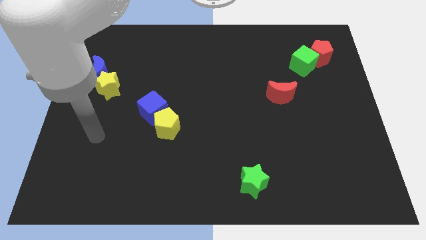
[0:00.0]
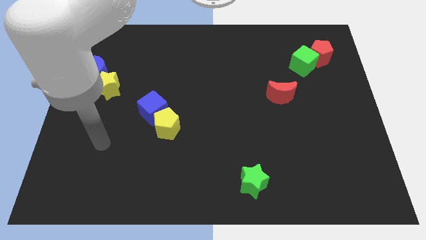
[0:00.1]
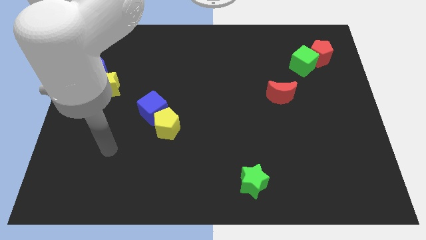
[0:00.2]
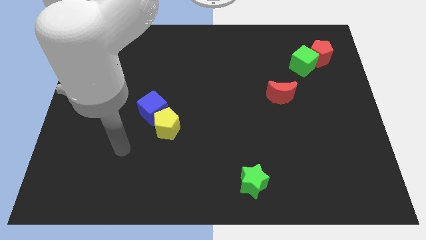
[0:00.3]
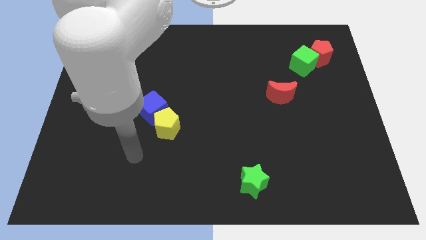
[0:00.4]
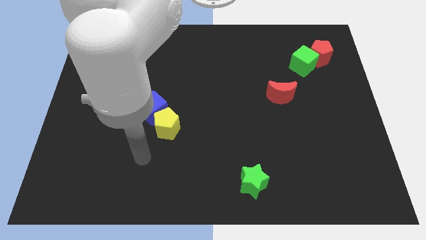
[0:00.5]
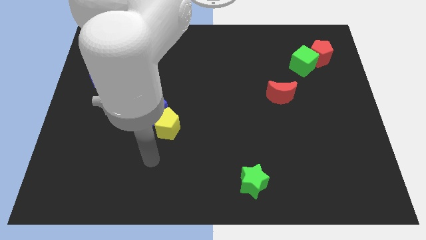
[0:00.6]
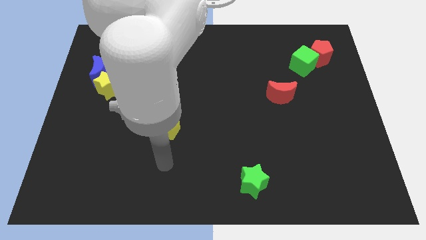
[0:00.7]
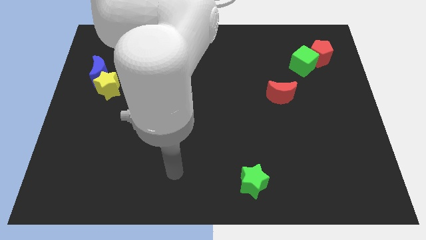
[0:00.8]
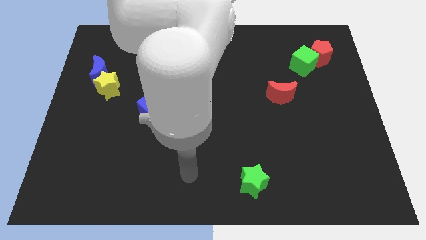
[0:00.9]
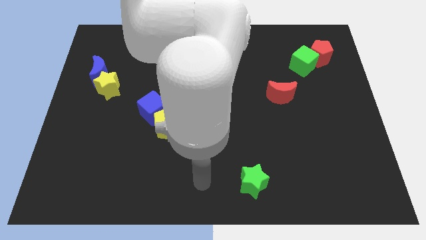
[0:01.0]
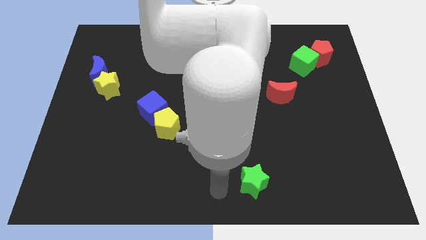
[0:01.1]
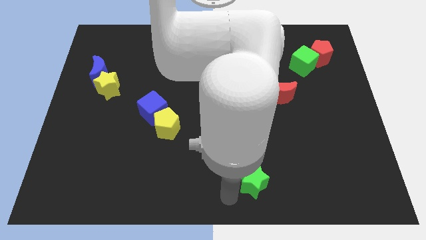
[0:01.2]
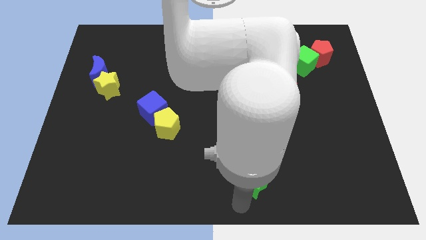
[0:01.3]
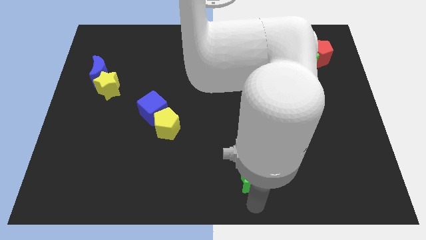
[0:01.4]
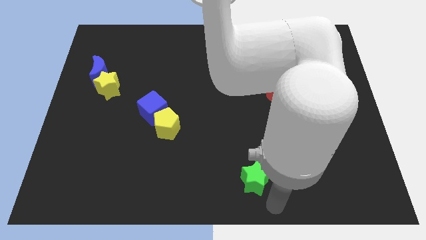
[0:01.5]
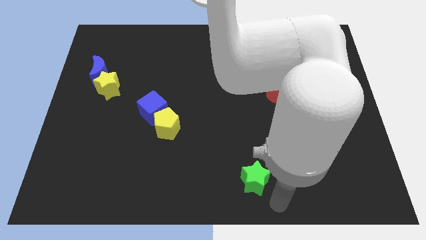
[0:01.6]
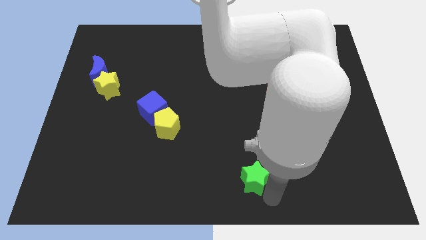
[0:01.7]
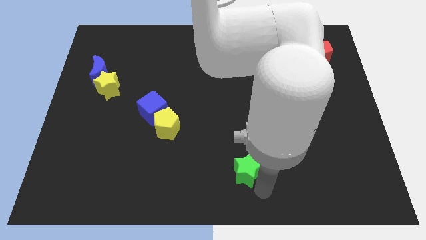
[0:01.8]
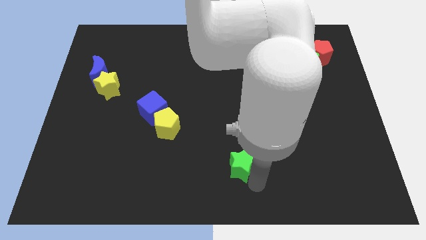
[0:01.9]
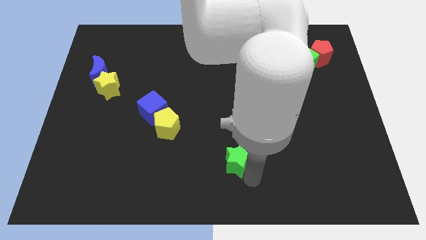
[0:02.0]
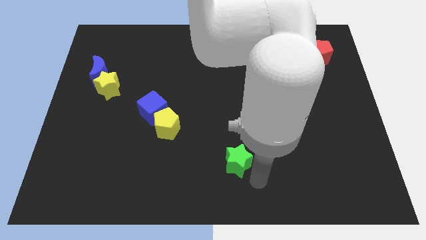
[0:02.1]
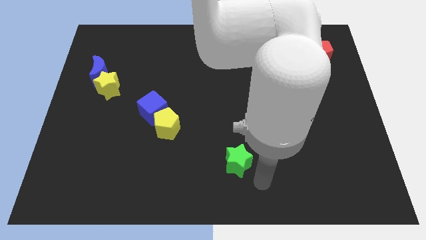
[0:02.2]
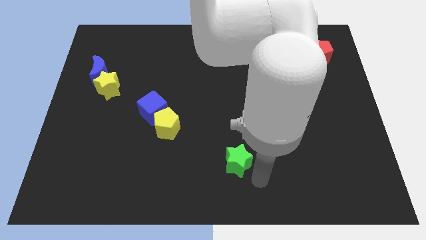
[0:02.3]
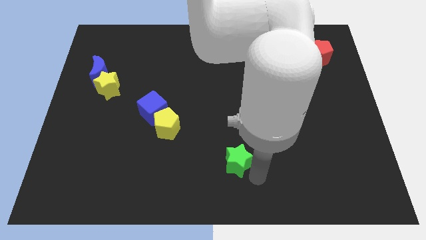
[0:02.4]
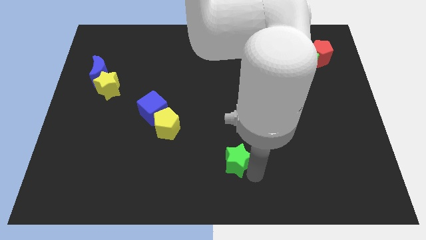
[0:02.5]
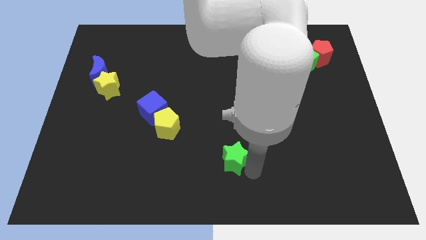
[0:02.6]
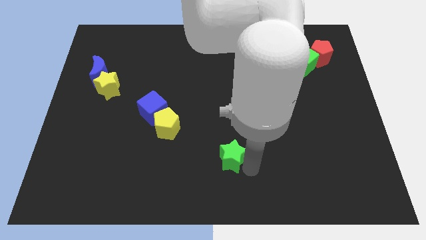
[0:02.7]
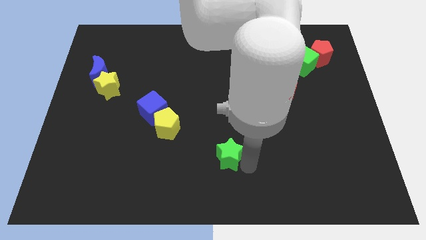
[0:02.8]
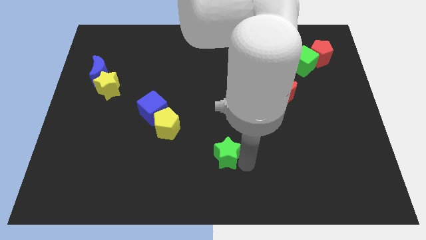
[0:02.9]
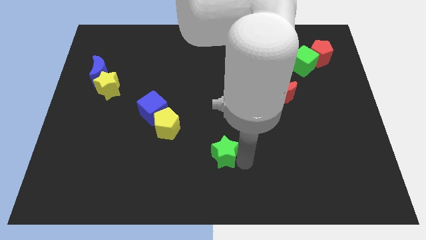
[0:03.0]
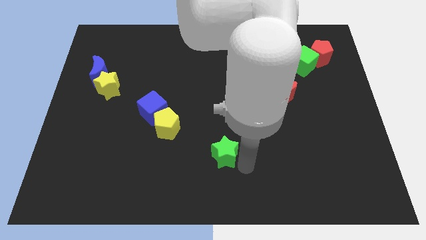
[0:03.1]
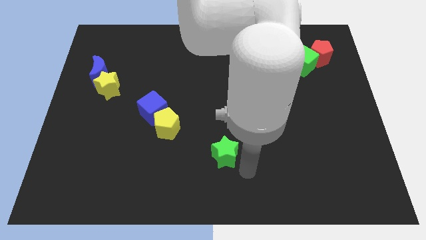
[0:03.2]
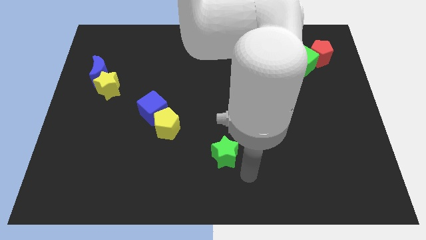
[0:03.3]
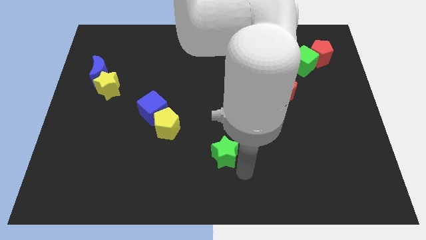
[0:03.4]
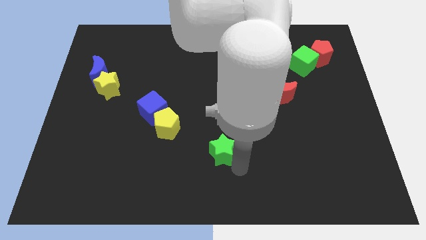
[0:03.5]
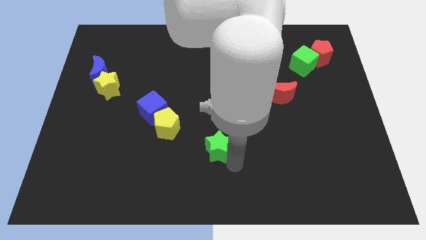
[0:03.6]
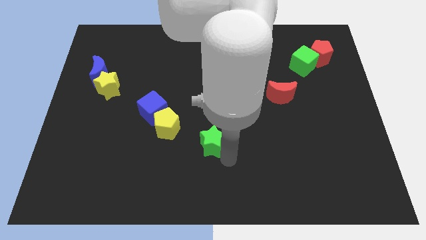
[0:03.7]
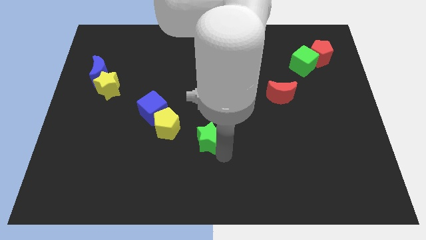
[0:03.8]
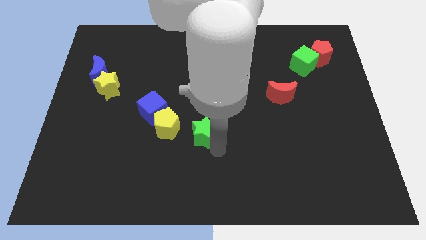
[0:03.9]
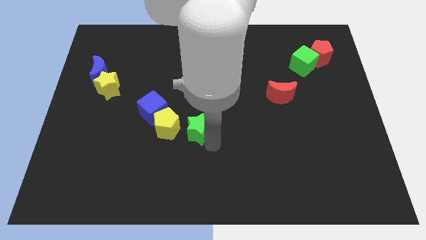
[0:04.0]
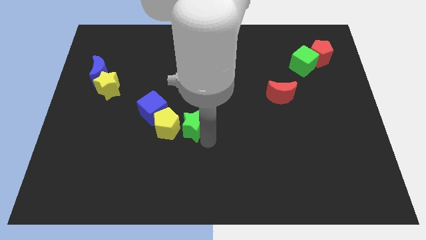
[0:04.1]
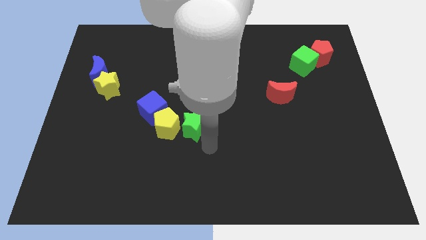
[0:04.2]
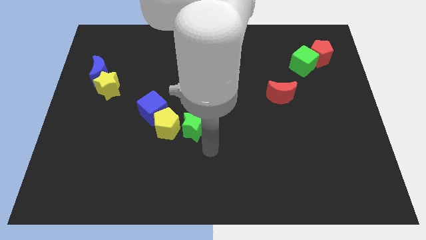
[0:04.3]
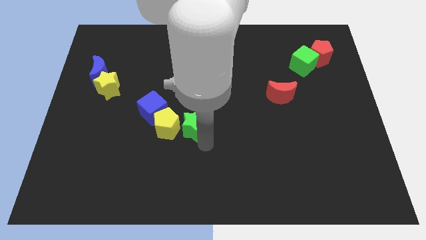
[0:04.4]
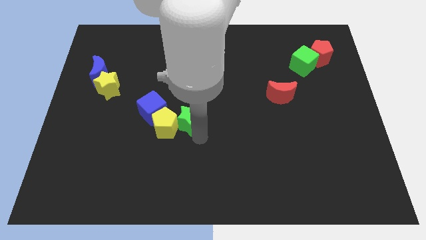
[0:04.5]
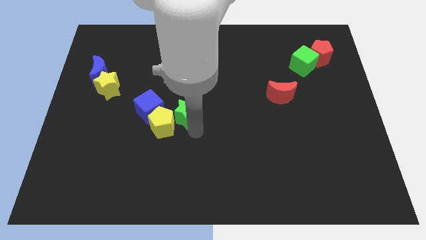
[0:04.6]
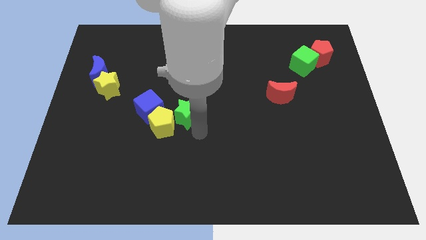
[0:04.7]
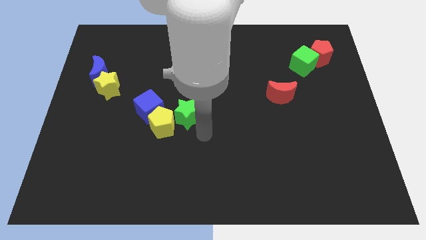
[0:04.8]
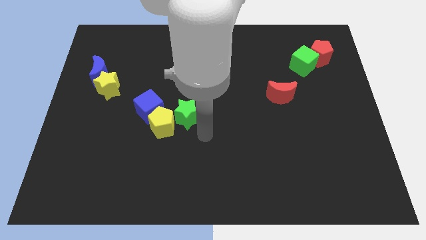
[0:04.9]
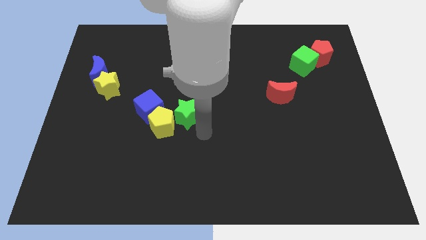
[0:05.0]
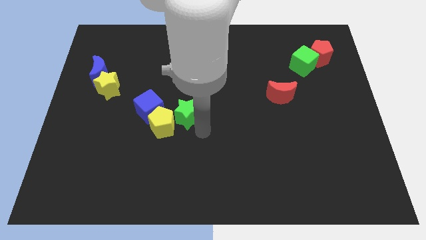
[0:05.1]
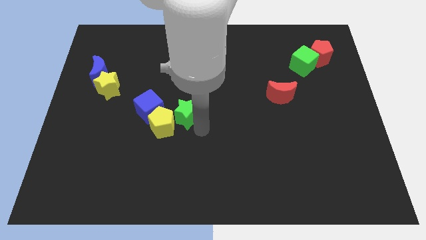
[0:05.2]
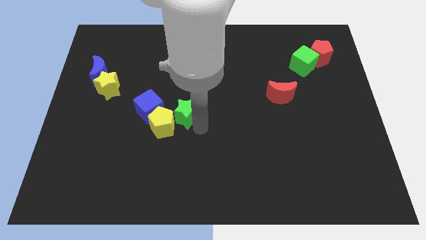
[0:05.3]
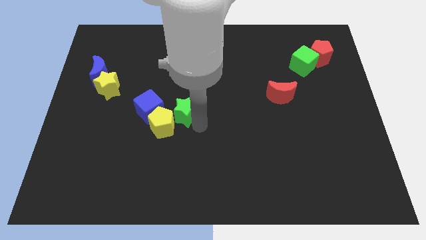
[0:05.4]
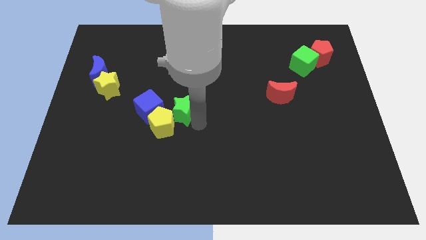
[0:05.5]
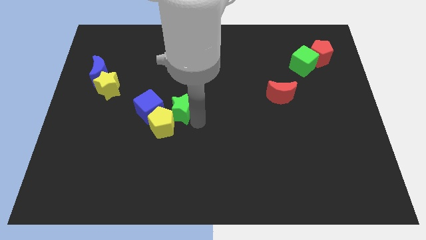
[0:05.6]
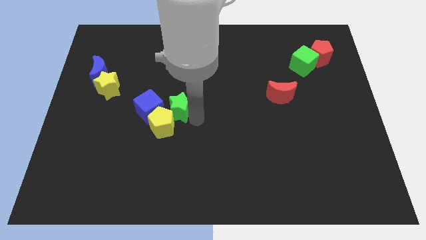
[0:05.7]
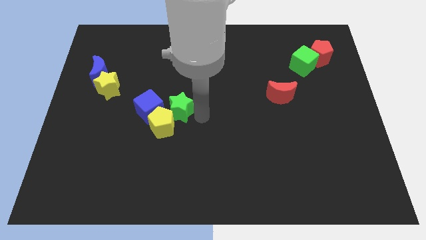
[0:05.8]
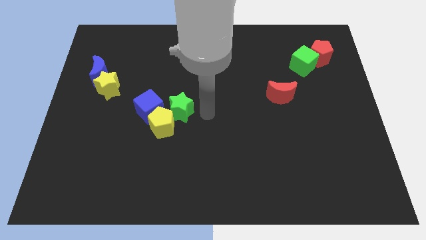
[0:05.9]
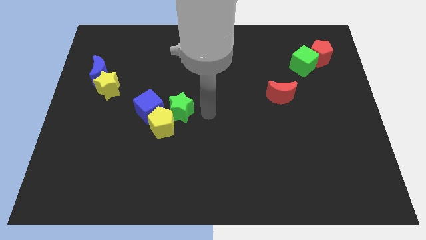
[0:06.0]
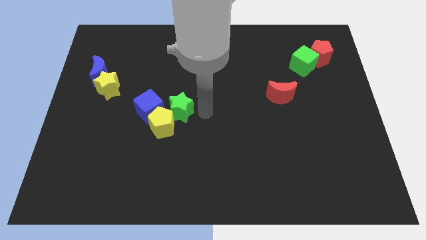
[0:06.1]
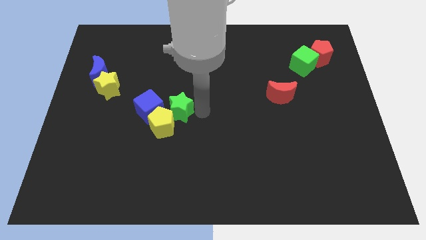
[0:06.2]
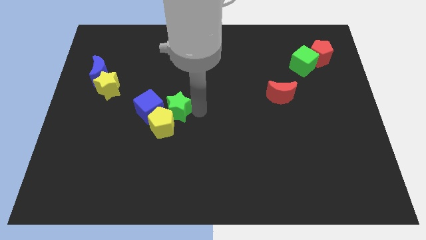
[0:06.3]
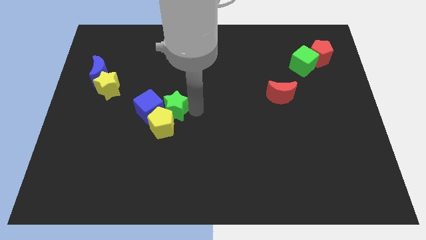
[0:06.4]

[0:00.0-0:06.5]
slide the green star next to the blue cube
